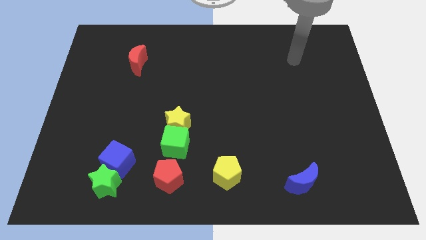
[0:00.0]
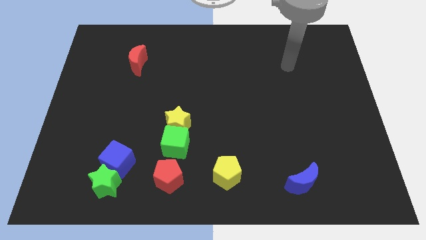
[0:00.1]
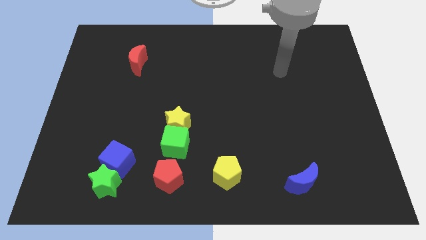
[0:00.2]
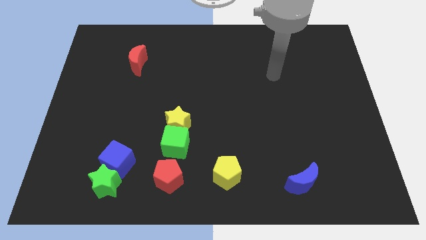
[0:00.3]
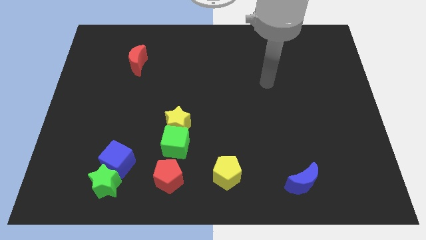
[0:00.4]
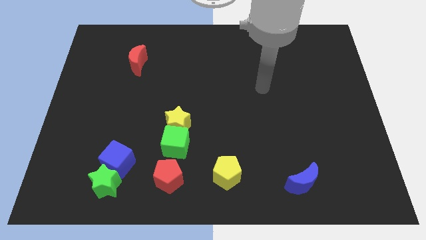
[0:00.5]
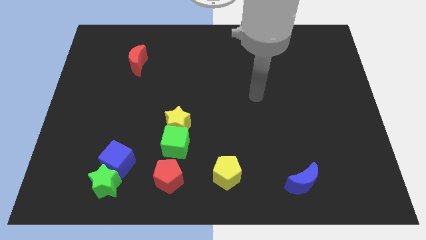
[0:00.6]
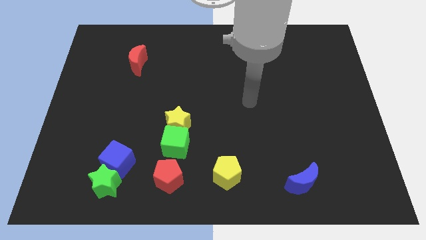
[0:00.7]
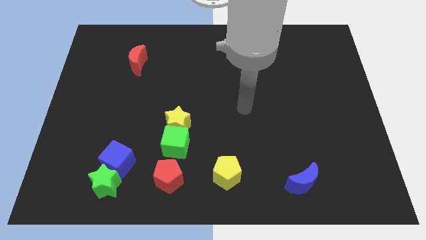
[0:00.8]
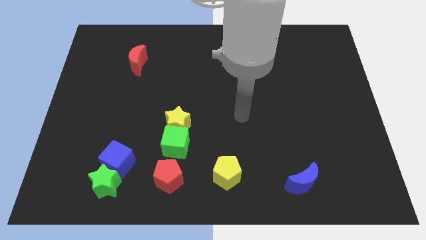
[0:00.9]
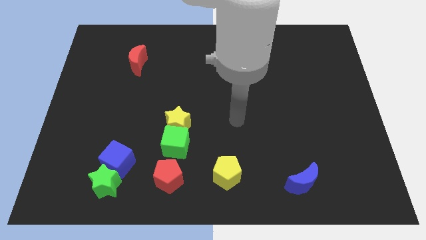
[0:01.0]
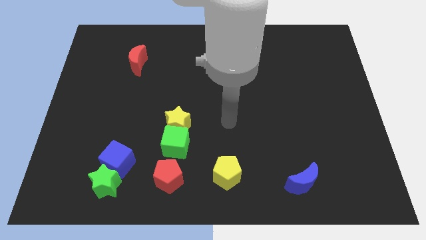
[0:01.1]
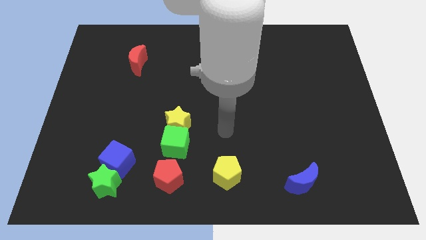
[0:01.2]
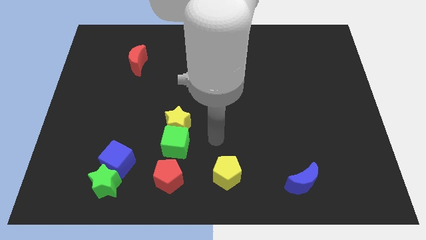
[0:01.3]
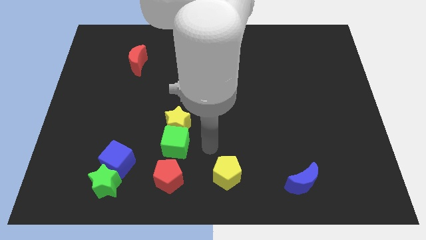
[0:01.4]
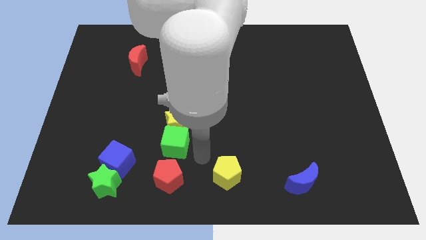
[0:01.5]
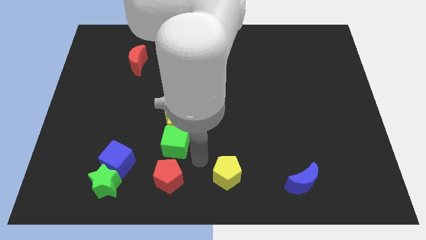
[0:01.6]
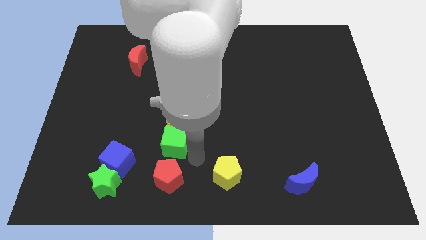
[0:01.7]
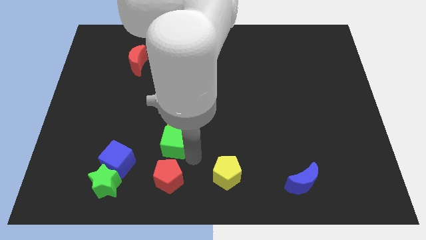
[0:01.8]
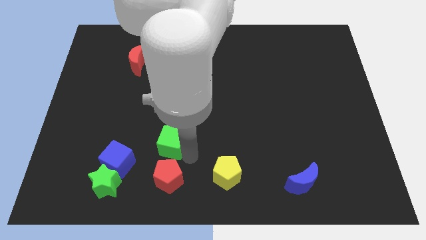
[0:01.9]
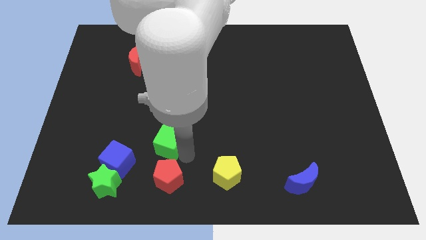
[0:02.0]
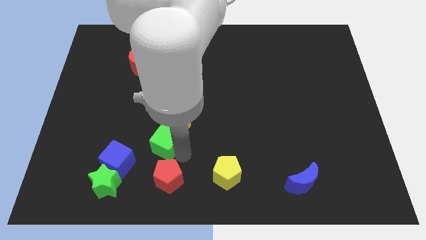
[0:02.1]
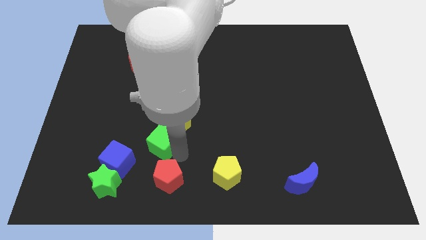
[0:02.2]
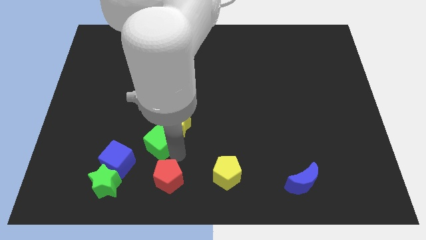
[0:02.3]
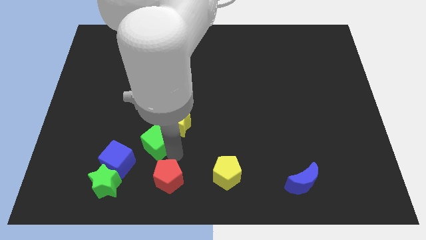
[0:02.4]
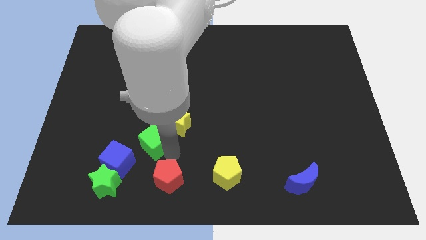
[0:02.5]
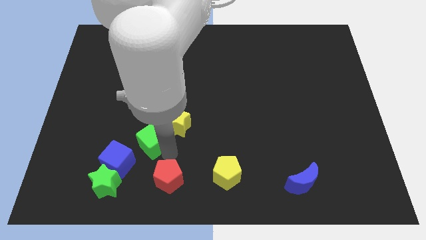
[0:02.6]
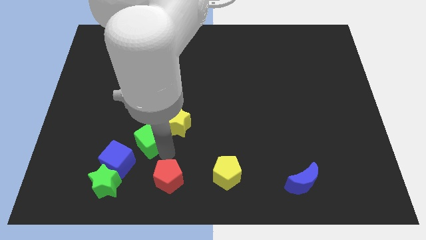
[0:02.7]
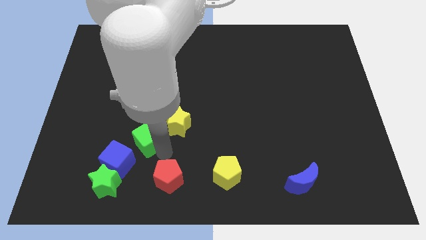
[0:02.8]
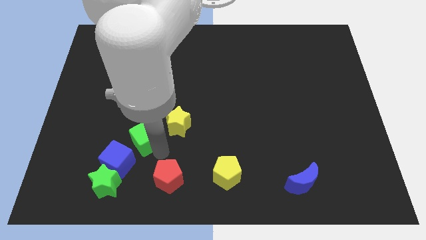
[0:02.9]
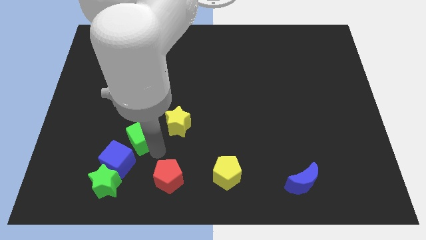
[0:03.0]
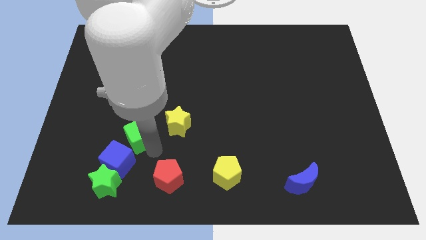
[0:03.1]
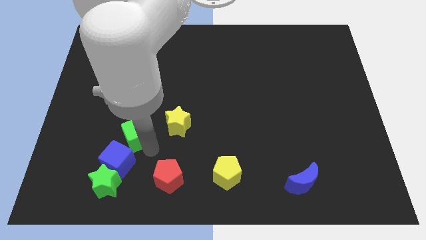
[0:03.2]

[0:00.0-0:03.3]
push the green cube upwards and then left somewhat

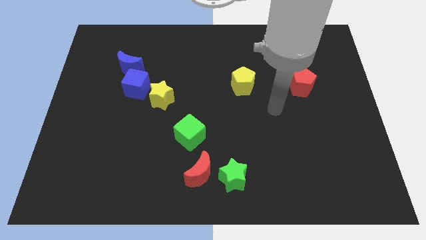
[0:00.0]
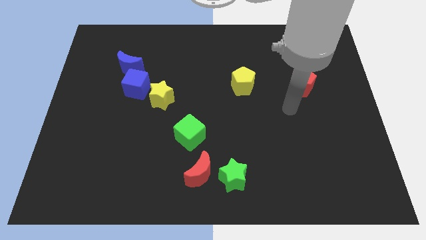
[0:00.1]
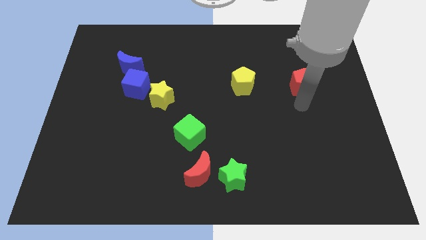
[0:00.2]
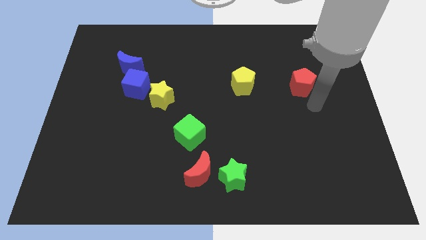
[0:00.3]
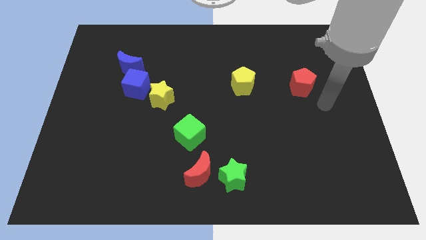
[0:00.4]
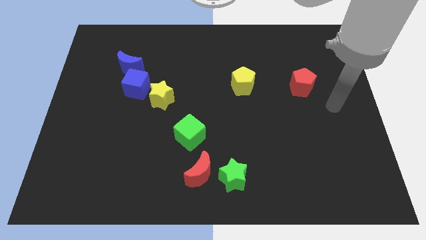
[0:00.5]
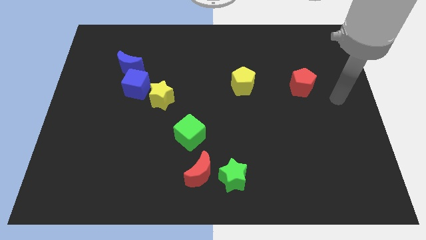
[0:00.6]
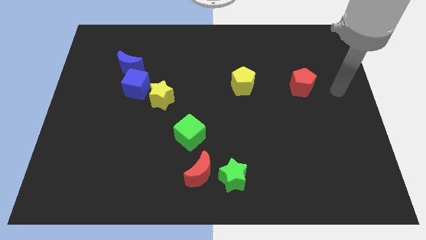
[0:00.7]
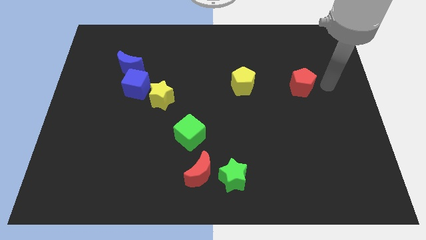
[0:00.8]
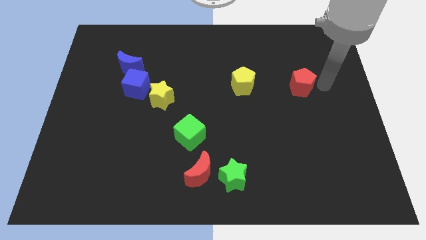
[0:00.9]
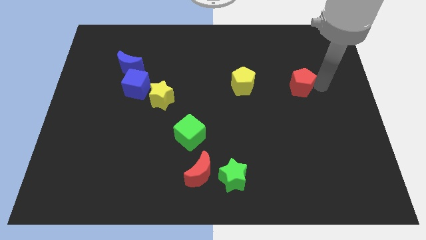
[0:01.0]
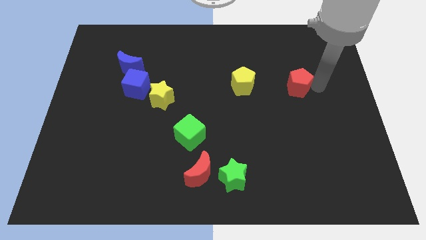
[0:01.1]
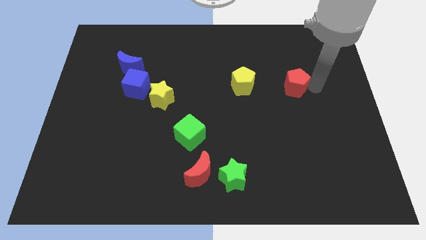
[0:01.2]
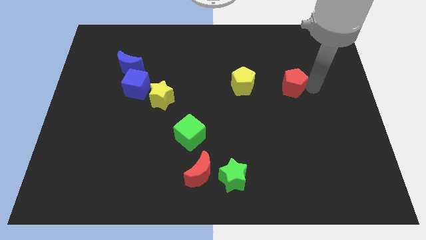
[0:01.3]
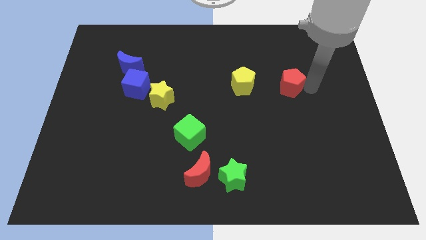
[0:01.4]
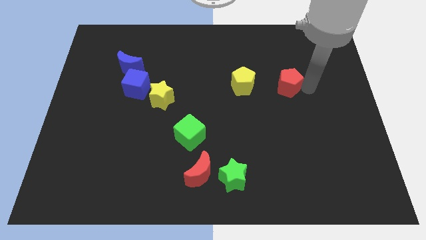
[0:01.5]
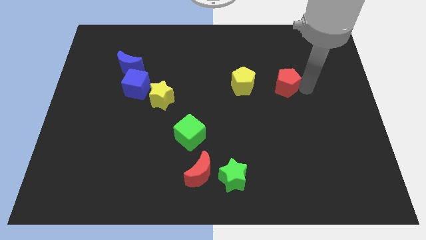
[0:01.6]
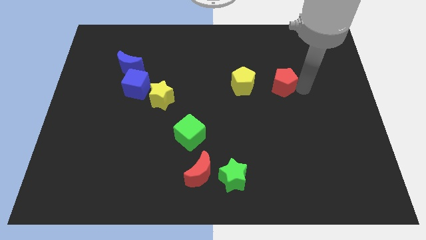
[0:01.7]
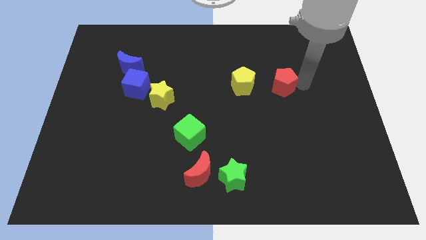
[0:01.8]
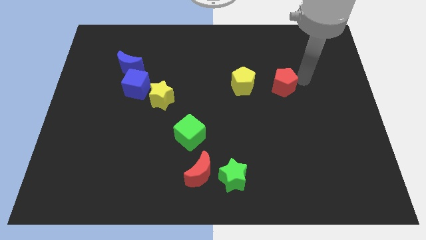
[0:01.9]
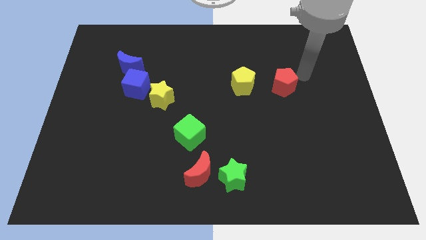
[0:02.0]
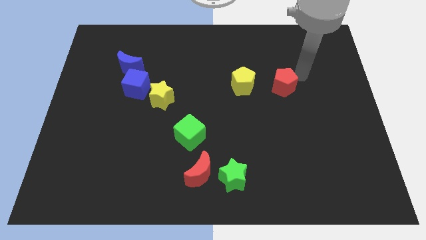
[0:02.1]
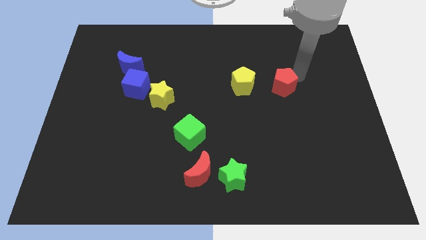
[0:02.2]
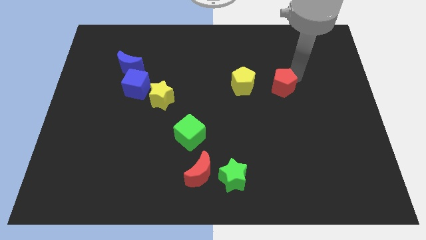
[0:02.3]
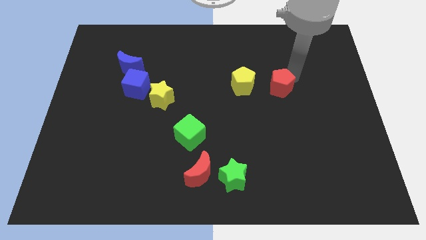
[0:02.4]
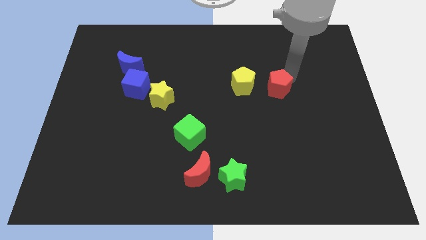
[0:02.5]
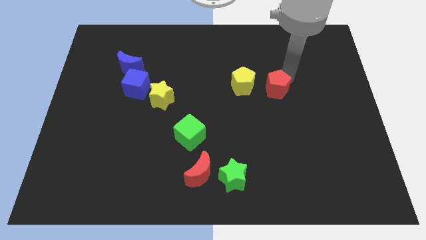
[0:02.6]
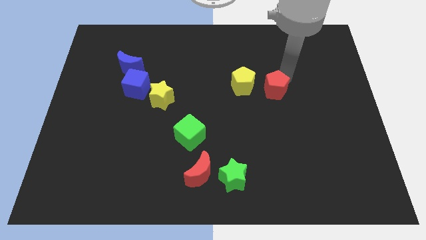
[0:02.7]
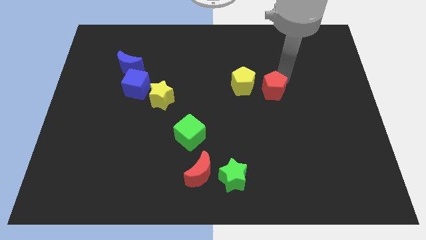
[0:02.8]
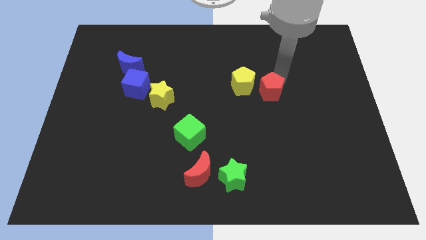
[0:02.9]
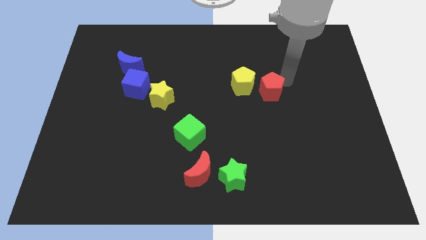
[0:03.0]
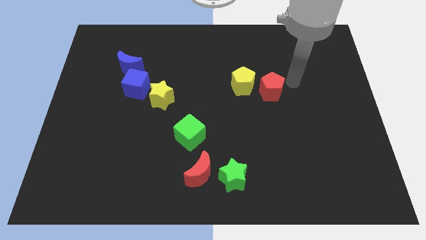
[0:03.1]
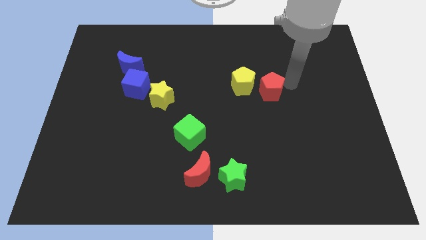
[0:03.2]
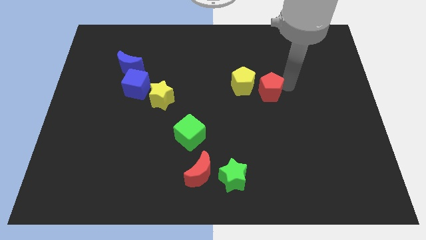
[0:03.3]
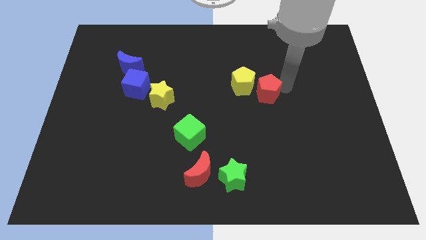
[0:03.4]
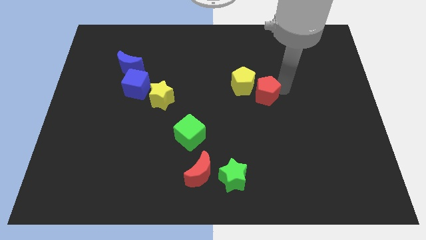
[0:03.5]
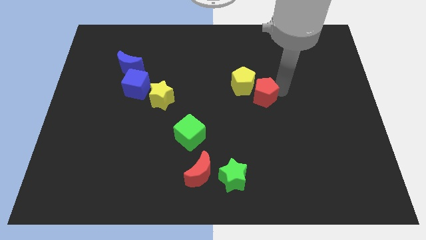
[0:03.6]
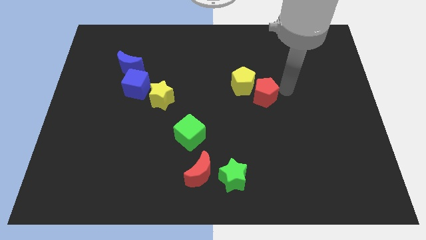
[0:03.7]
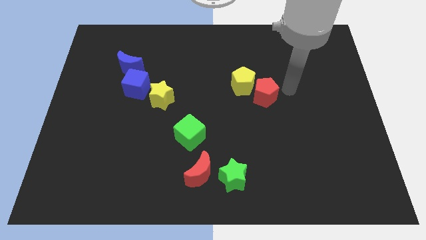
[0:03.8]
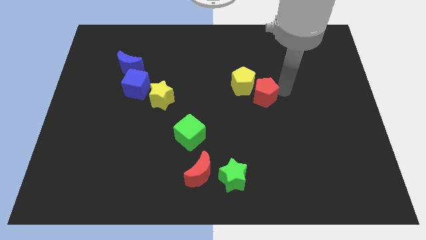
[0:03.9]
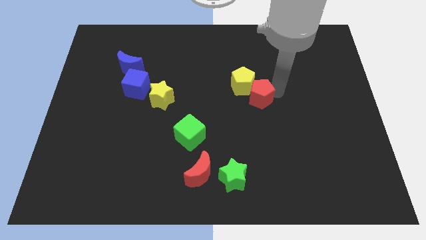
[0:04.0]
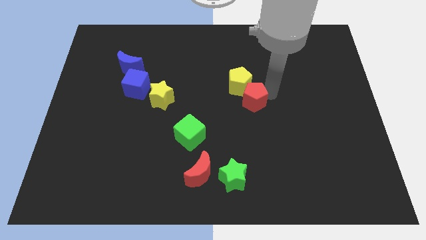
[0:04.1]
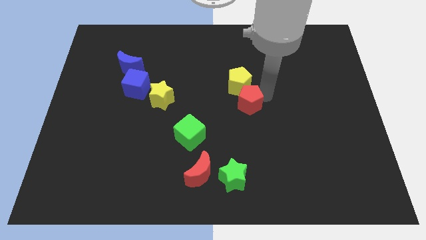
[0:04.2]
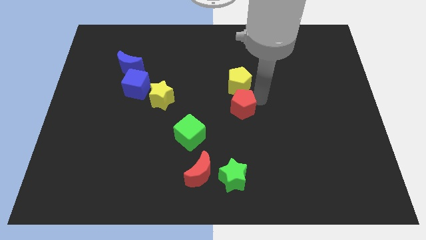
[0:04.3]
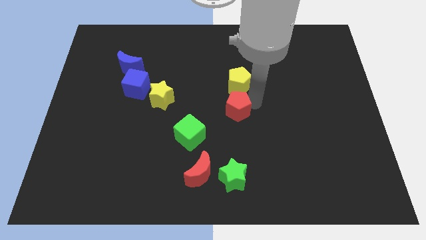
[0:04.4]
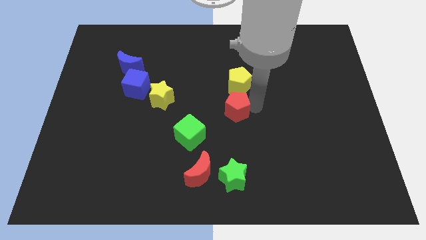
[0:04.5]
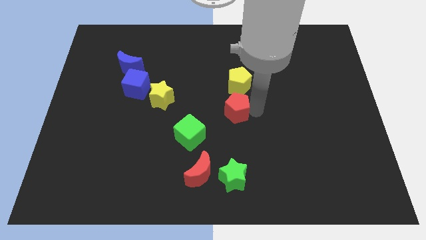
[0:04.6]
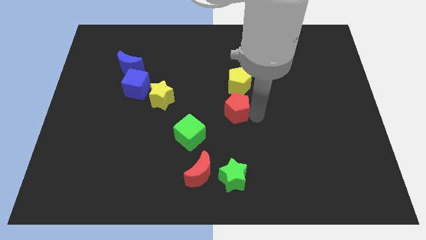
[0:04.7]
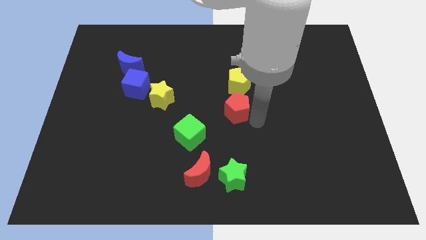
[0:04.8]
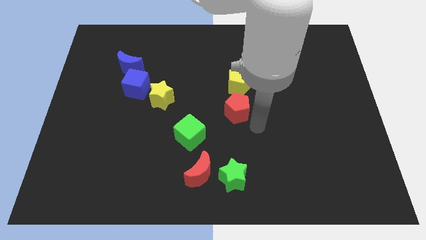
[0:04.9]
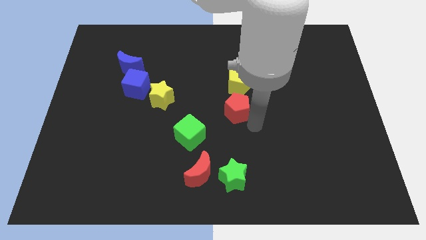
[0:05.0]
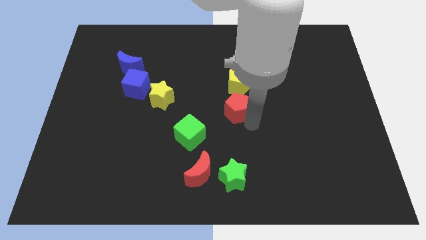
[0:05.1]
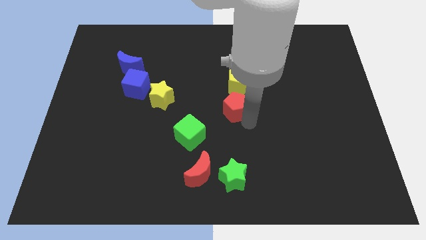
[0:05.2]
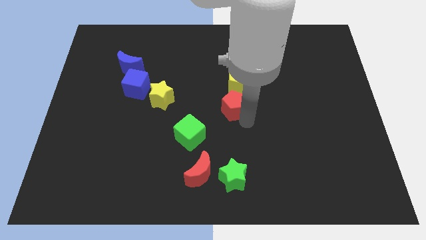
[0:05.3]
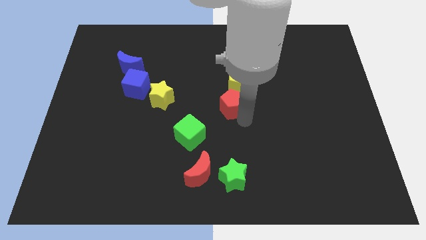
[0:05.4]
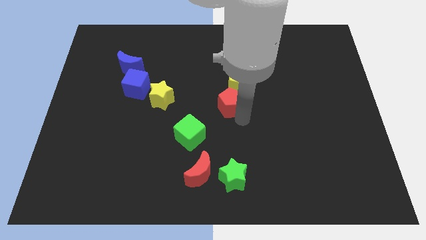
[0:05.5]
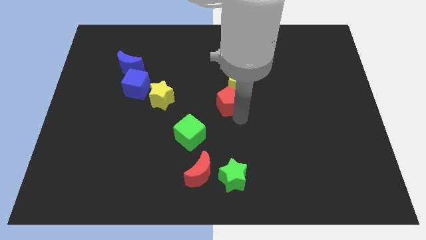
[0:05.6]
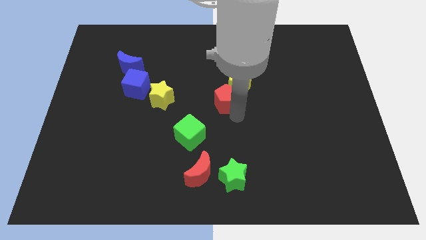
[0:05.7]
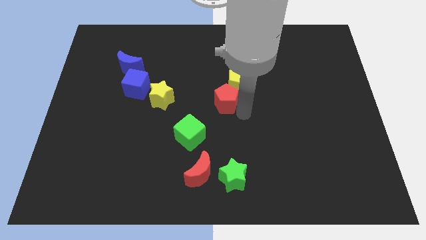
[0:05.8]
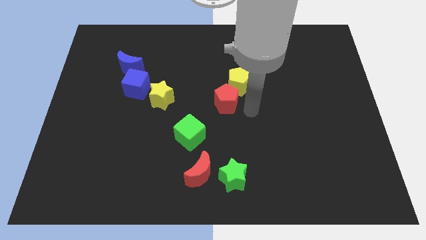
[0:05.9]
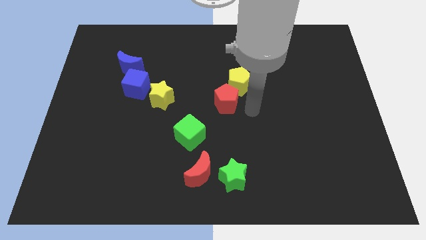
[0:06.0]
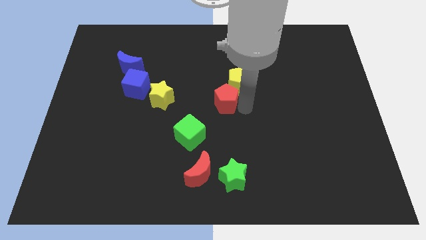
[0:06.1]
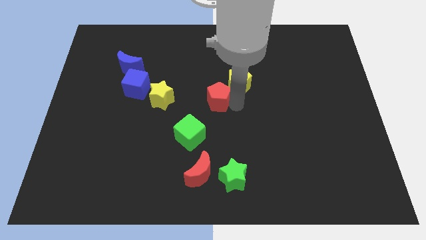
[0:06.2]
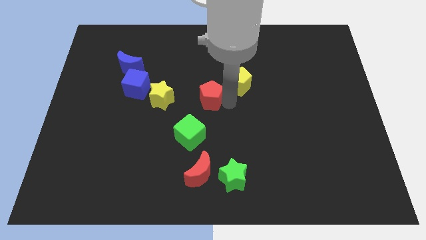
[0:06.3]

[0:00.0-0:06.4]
push the red pentagon to the left
